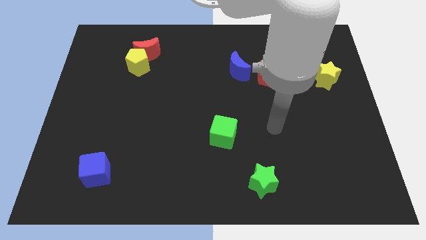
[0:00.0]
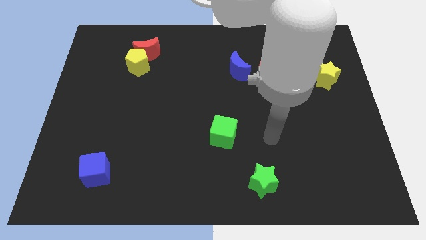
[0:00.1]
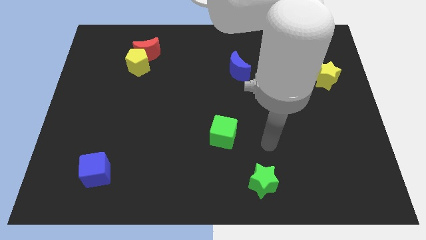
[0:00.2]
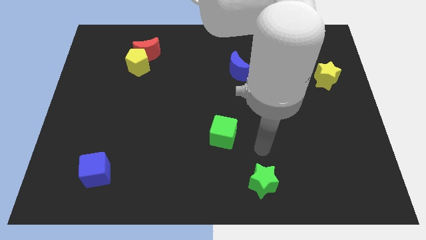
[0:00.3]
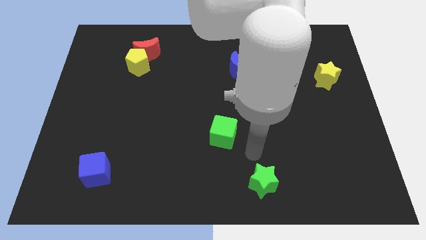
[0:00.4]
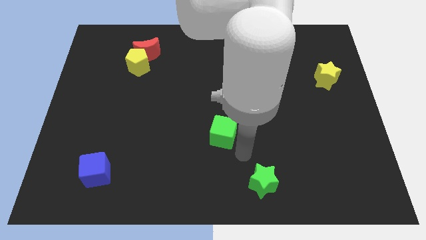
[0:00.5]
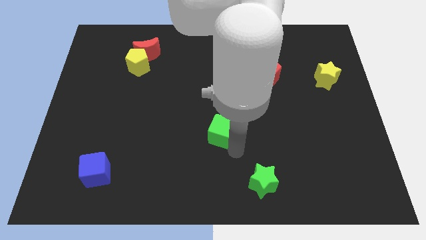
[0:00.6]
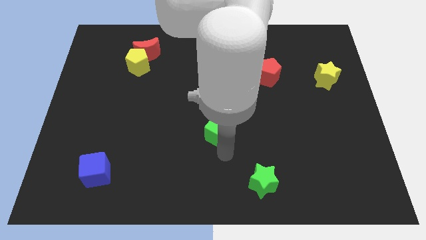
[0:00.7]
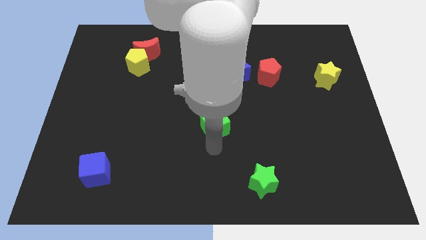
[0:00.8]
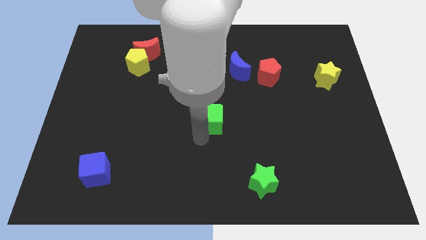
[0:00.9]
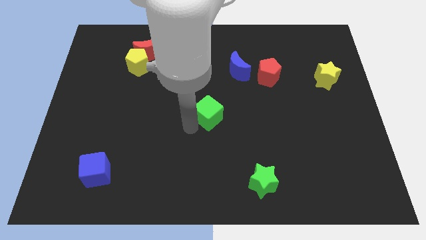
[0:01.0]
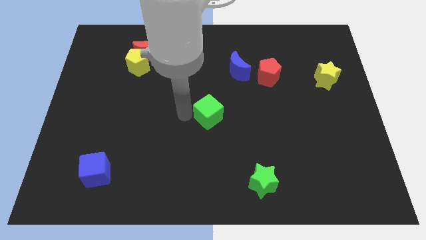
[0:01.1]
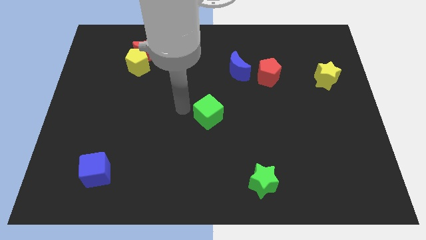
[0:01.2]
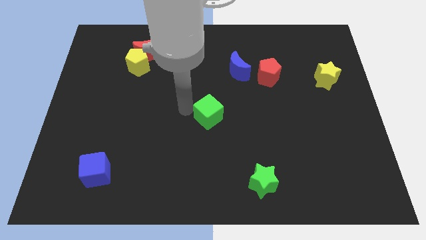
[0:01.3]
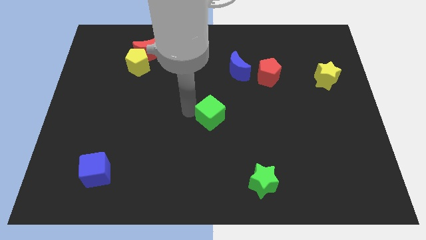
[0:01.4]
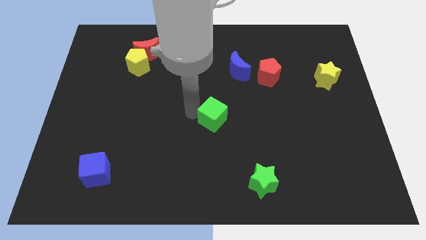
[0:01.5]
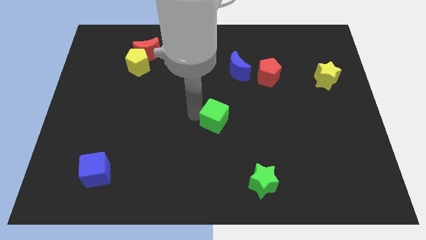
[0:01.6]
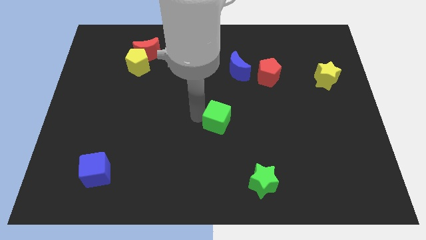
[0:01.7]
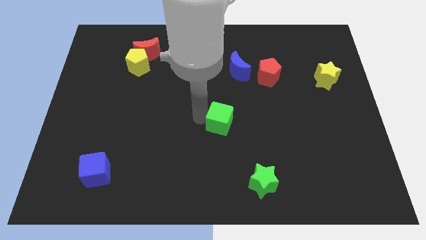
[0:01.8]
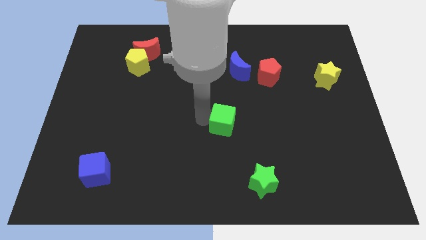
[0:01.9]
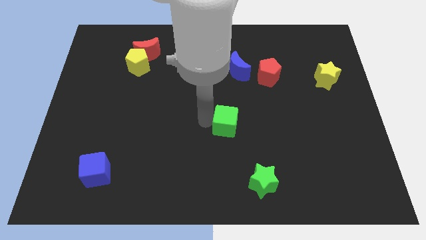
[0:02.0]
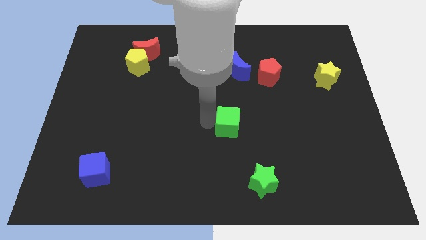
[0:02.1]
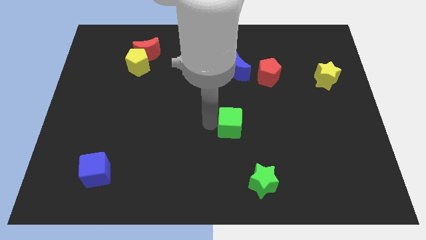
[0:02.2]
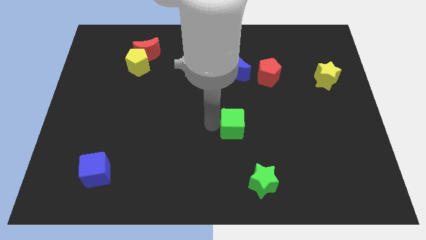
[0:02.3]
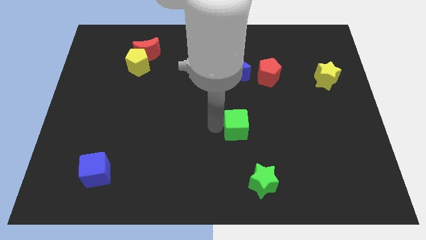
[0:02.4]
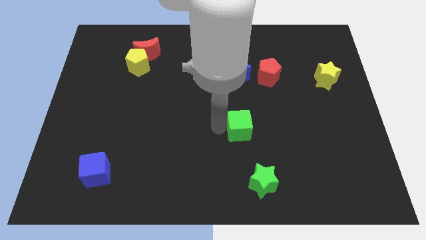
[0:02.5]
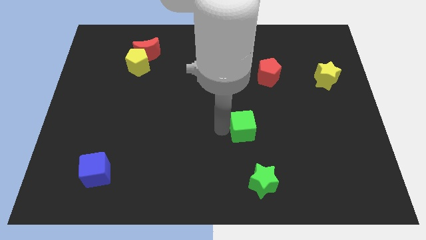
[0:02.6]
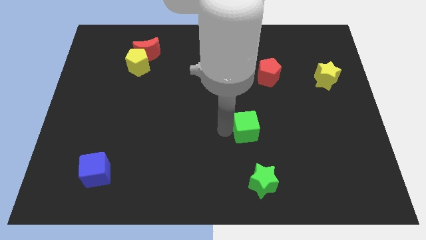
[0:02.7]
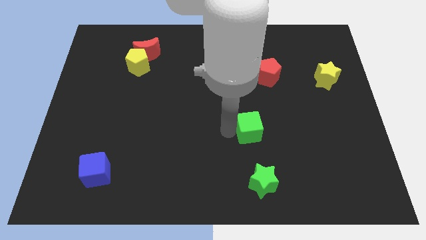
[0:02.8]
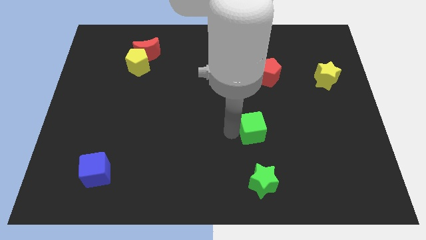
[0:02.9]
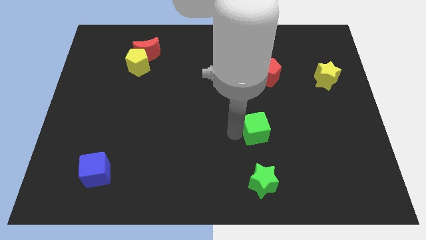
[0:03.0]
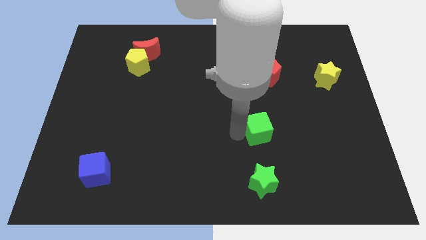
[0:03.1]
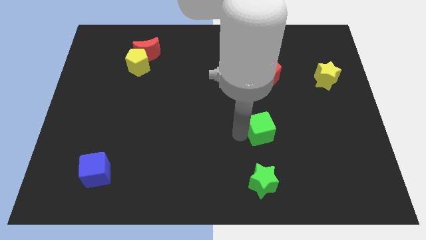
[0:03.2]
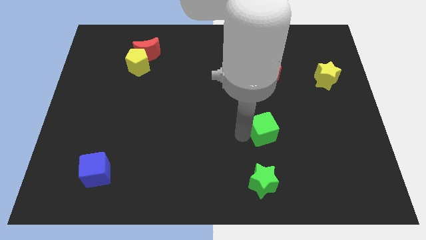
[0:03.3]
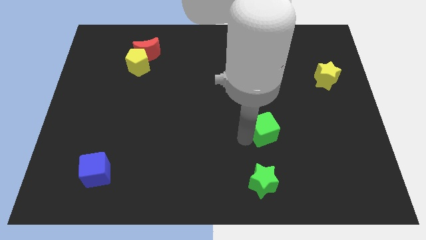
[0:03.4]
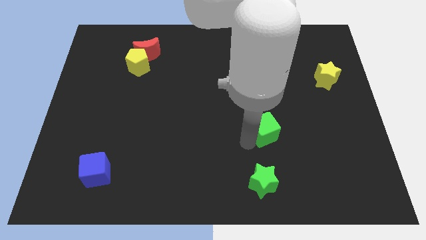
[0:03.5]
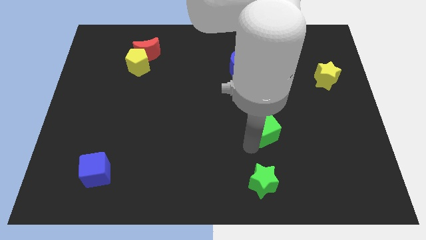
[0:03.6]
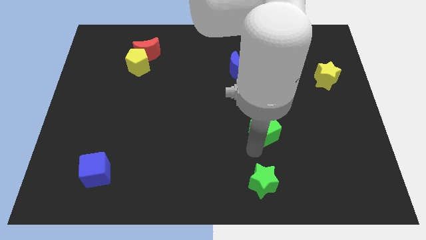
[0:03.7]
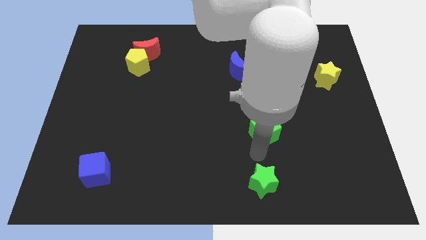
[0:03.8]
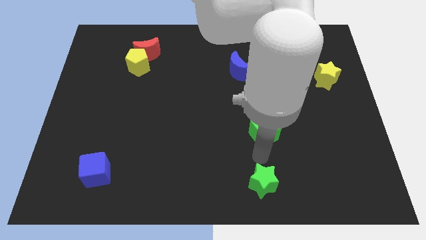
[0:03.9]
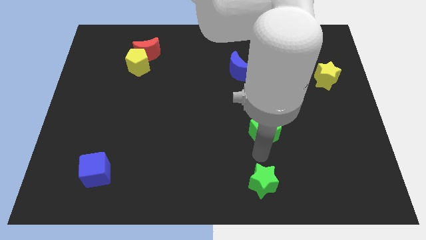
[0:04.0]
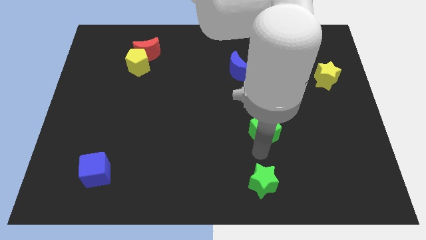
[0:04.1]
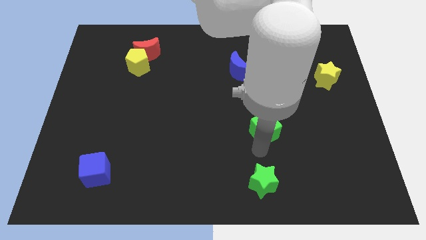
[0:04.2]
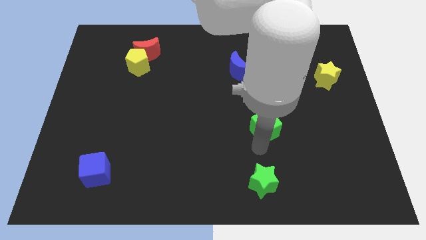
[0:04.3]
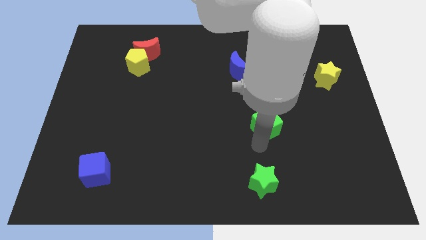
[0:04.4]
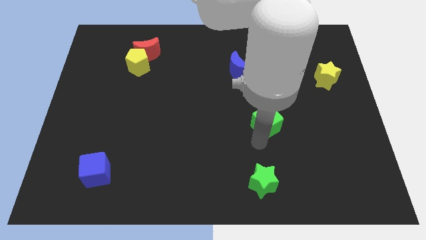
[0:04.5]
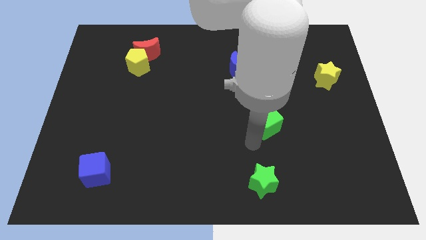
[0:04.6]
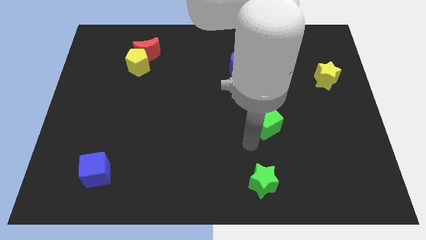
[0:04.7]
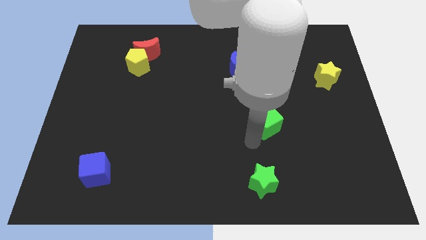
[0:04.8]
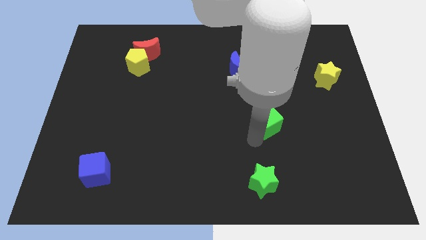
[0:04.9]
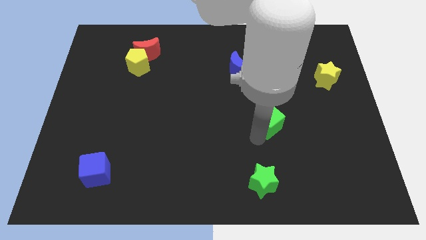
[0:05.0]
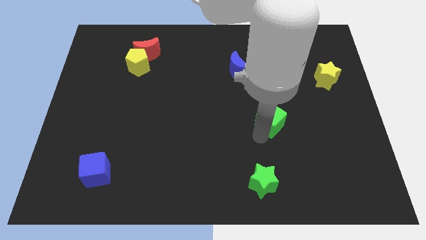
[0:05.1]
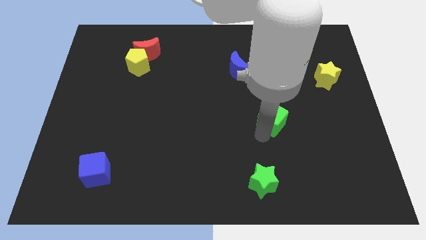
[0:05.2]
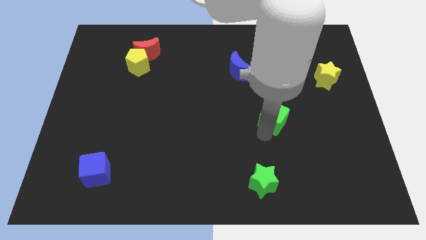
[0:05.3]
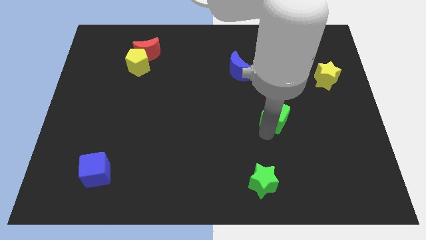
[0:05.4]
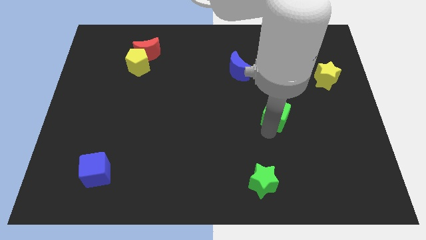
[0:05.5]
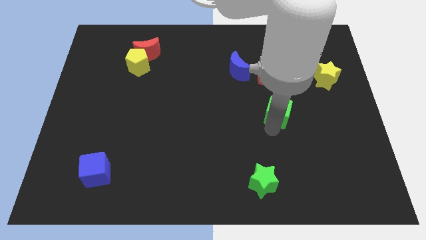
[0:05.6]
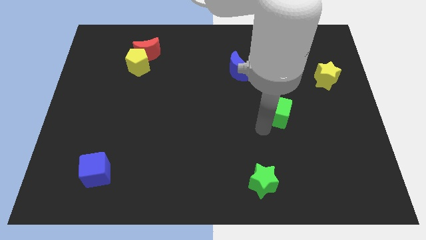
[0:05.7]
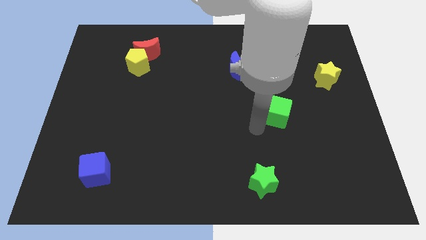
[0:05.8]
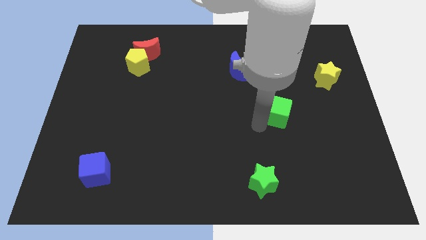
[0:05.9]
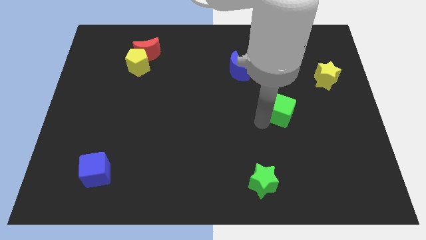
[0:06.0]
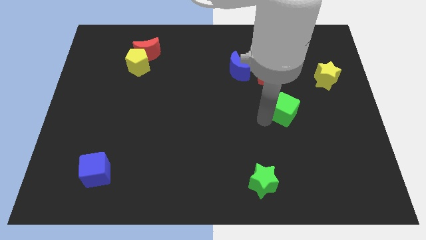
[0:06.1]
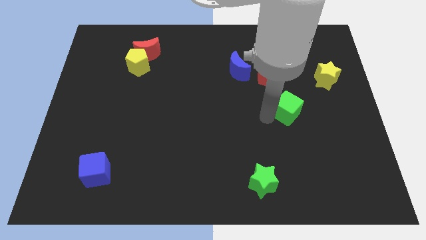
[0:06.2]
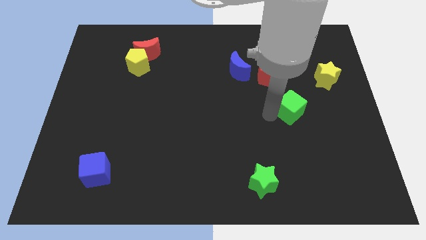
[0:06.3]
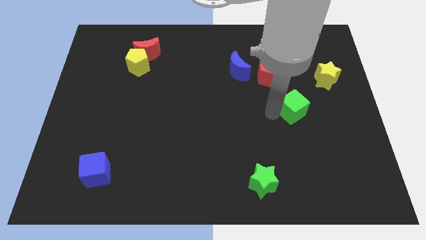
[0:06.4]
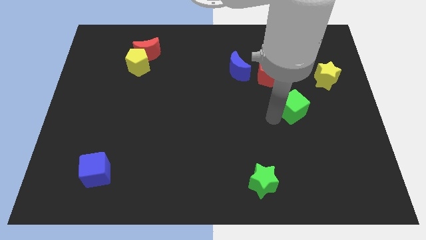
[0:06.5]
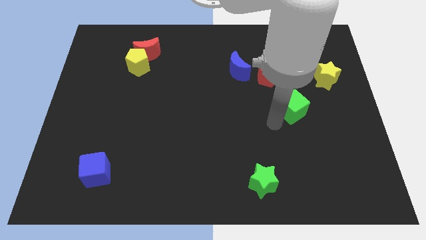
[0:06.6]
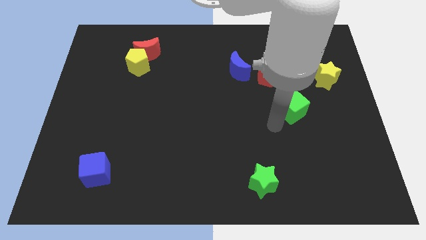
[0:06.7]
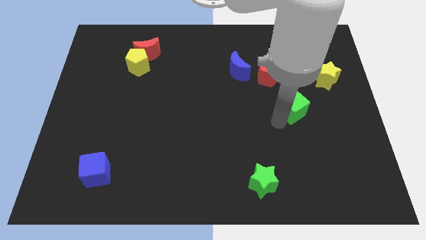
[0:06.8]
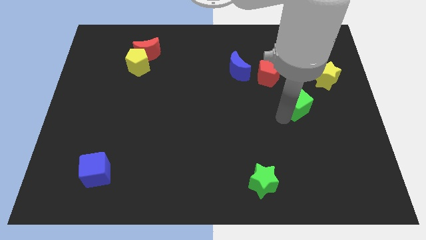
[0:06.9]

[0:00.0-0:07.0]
slide the green cube to the bottom left side of the yellow star

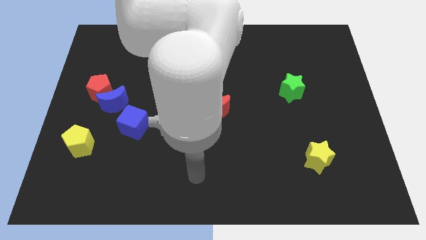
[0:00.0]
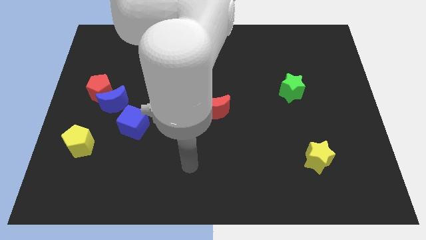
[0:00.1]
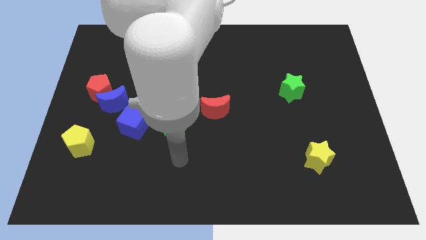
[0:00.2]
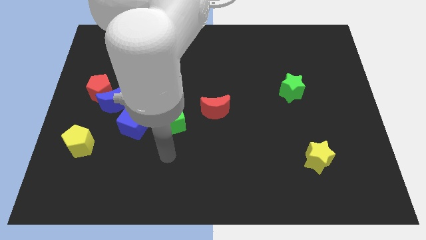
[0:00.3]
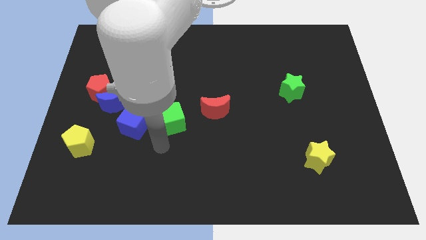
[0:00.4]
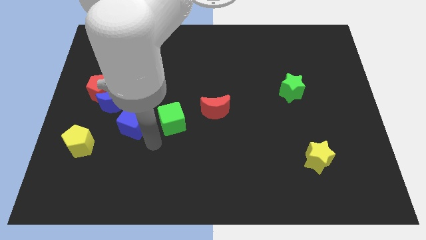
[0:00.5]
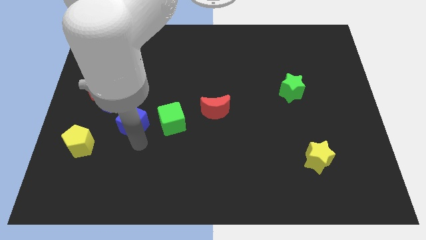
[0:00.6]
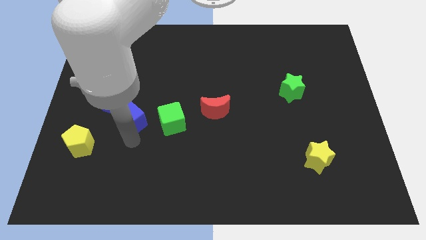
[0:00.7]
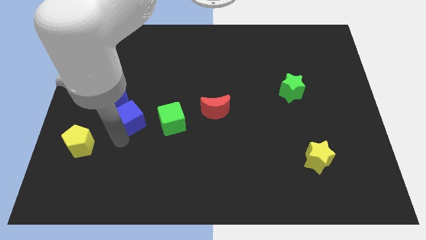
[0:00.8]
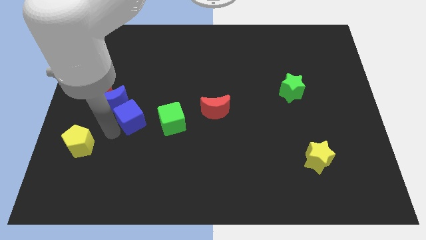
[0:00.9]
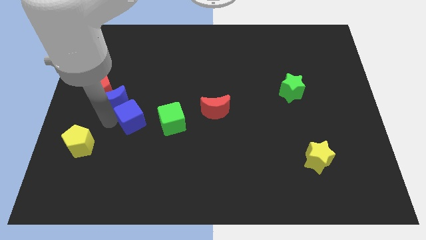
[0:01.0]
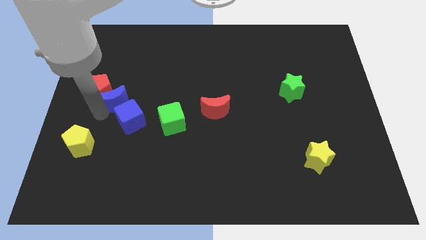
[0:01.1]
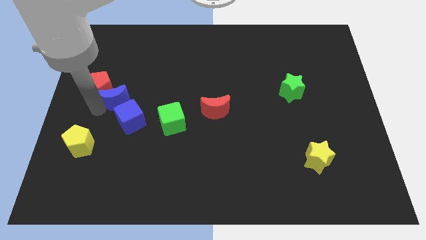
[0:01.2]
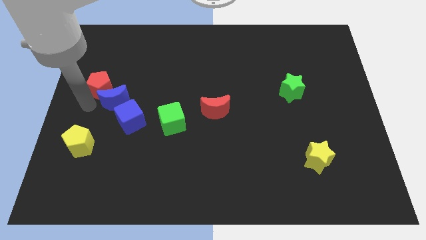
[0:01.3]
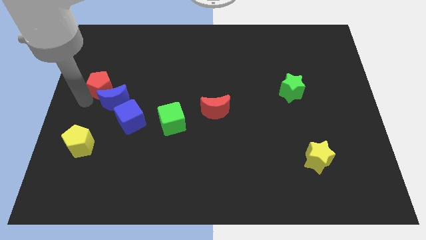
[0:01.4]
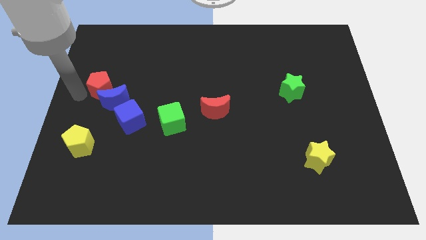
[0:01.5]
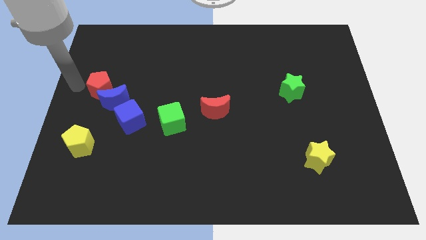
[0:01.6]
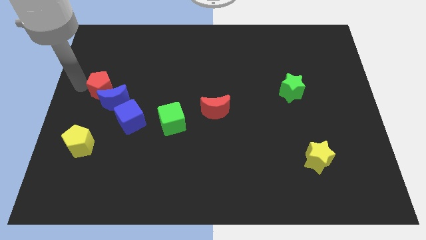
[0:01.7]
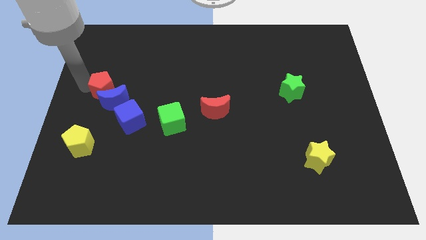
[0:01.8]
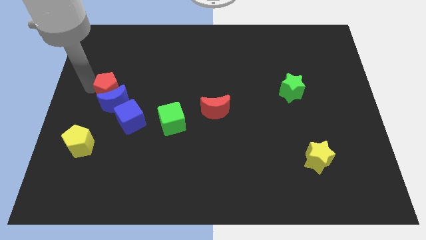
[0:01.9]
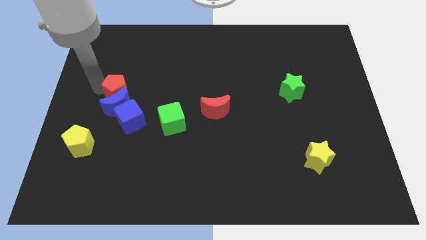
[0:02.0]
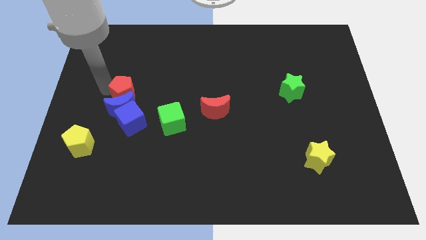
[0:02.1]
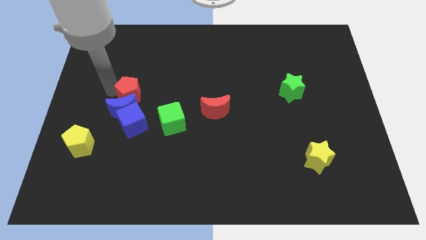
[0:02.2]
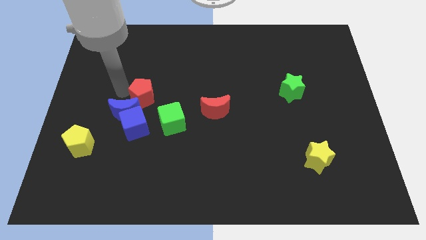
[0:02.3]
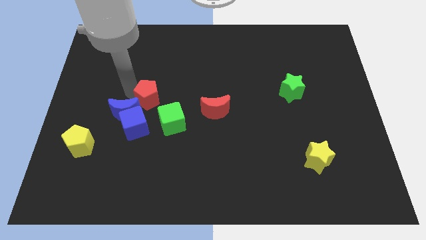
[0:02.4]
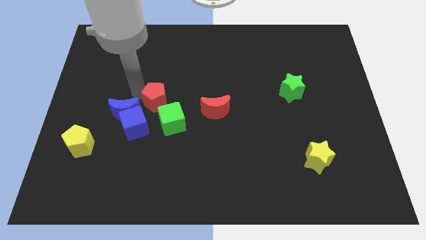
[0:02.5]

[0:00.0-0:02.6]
push the red pentagon left of the red moon
